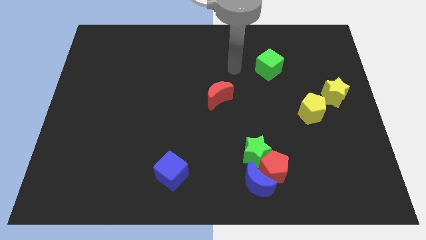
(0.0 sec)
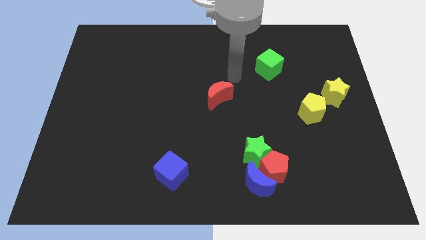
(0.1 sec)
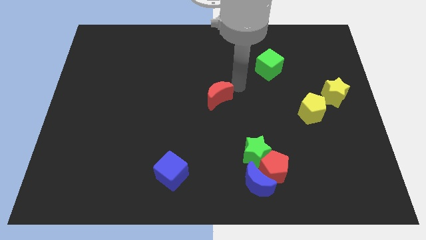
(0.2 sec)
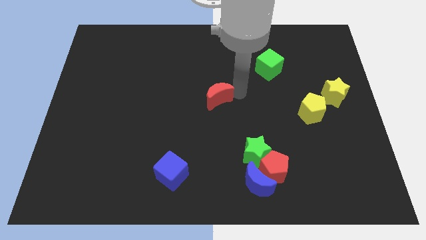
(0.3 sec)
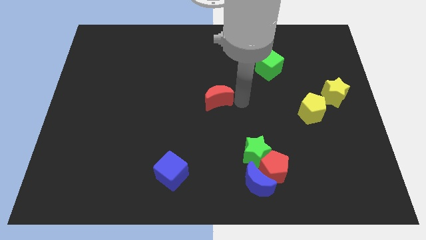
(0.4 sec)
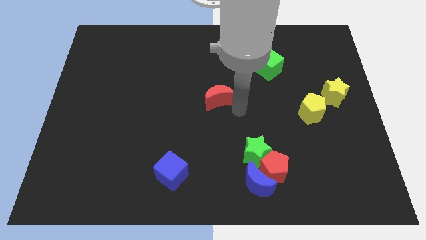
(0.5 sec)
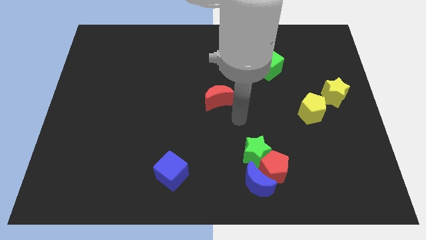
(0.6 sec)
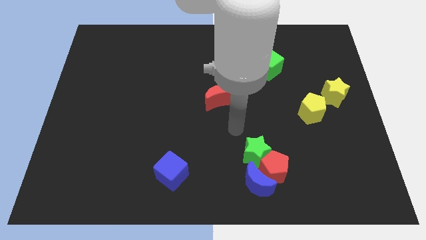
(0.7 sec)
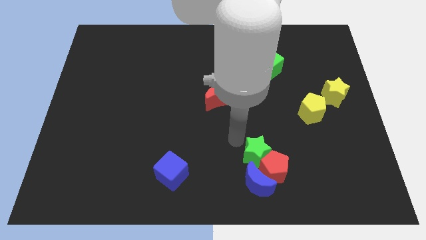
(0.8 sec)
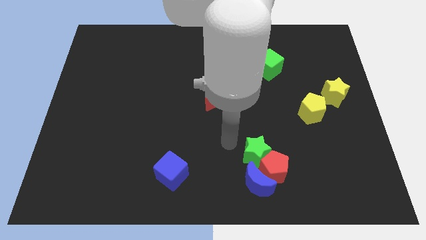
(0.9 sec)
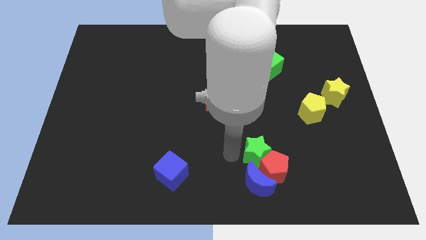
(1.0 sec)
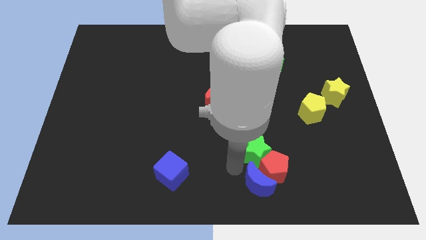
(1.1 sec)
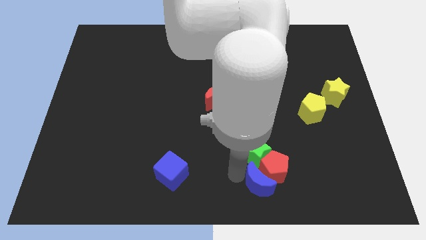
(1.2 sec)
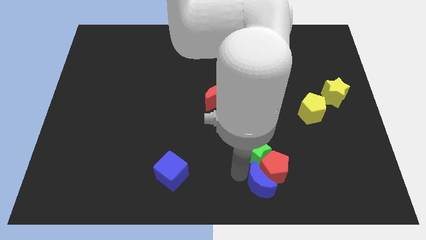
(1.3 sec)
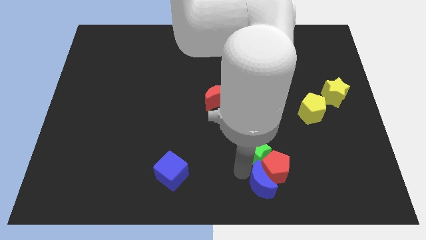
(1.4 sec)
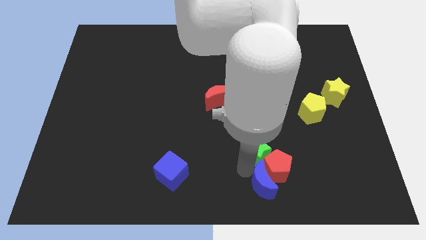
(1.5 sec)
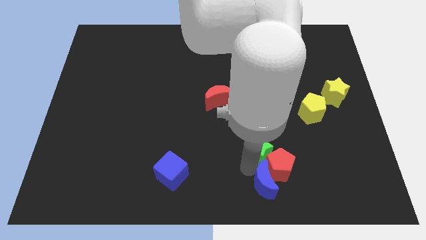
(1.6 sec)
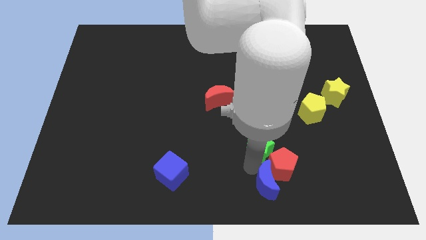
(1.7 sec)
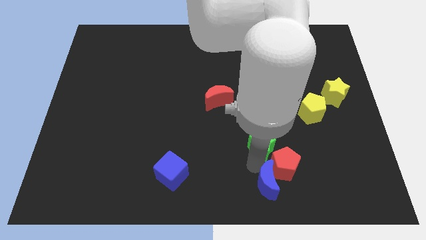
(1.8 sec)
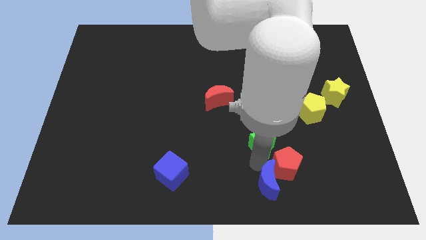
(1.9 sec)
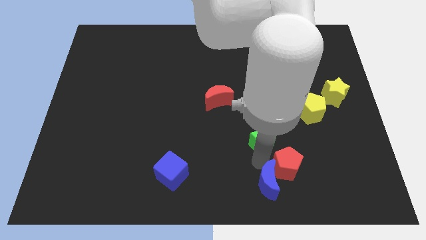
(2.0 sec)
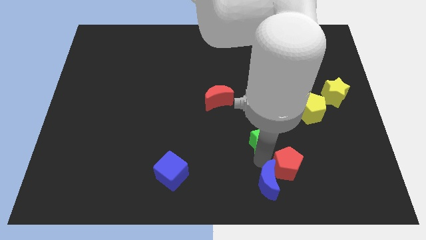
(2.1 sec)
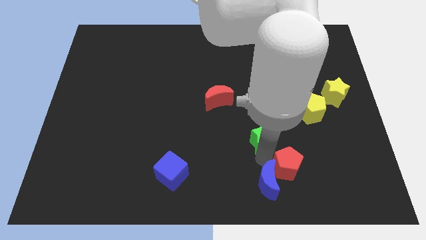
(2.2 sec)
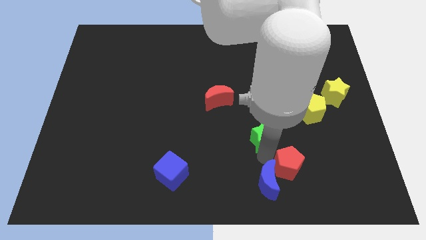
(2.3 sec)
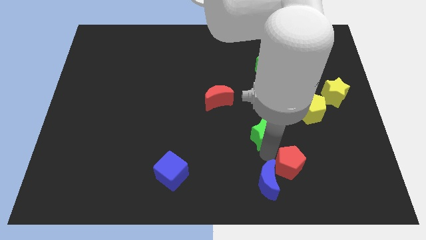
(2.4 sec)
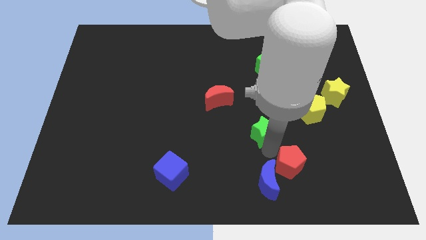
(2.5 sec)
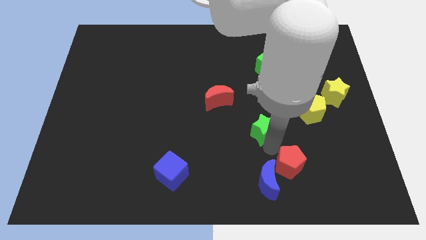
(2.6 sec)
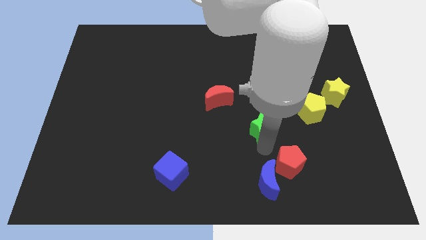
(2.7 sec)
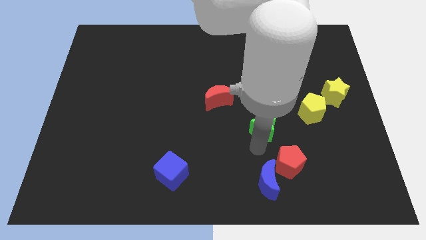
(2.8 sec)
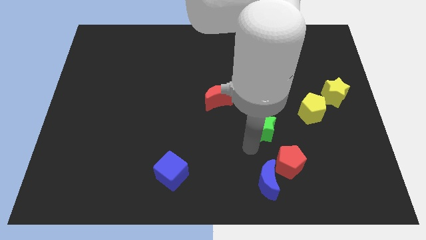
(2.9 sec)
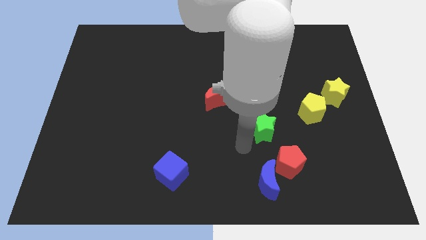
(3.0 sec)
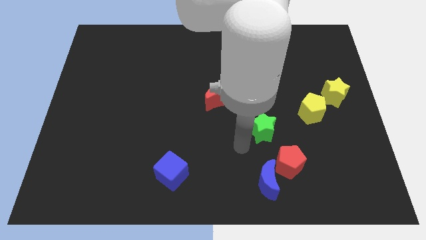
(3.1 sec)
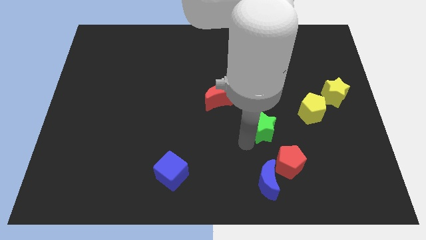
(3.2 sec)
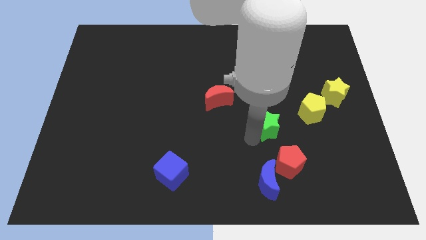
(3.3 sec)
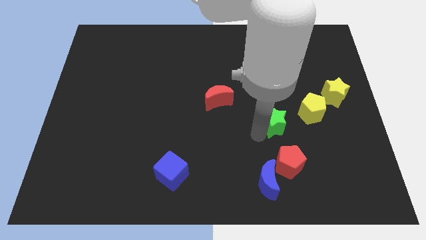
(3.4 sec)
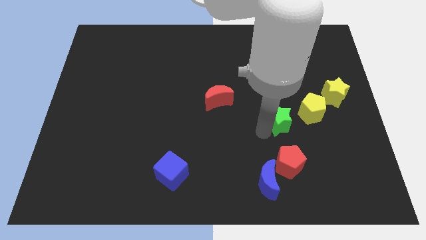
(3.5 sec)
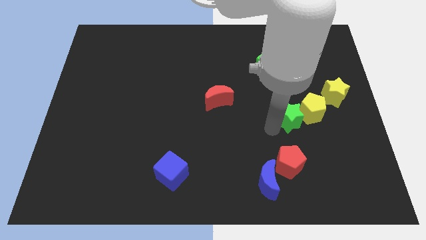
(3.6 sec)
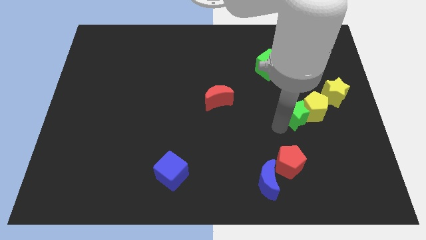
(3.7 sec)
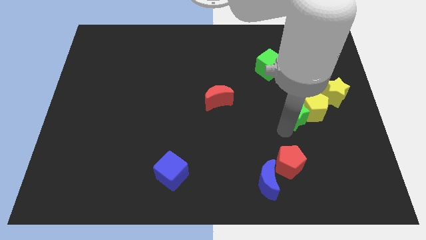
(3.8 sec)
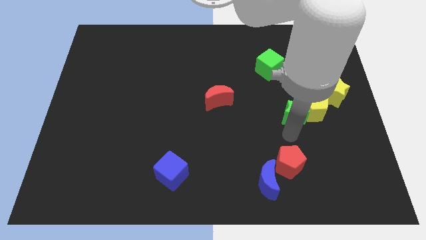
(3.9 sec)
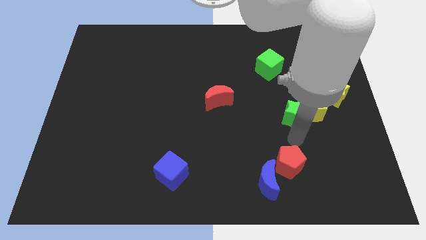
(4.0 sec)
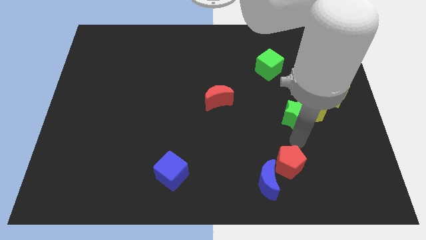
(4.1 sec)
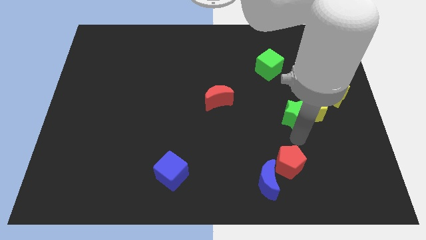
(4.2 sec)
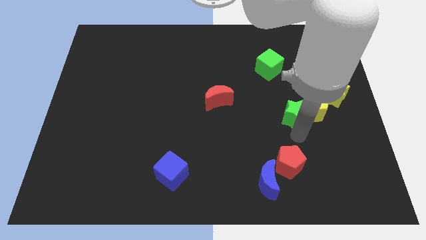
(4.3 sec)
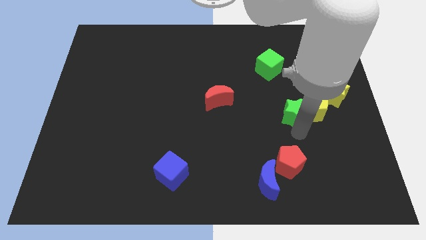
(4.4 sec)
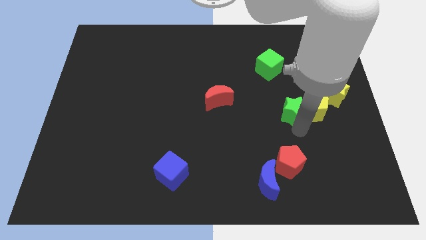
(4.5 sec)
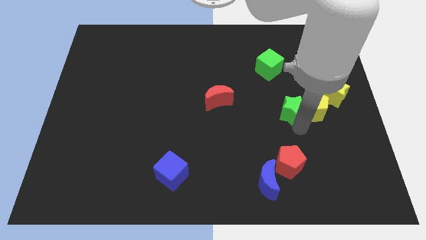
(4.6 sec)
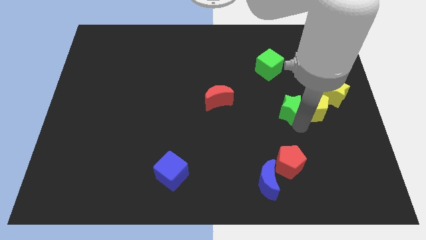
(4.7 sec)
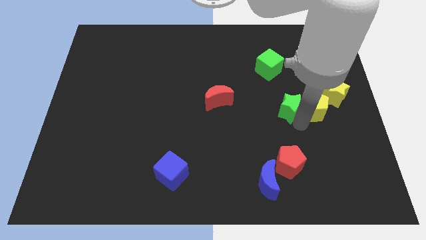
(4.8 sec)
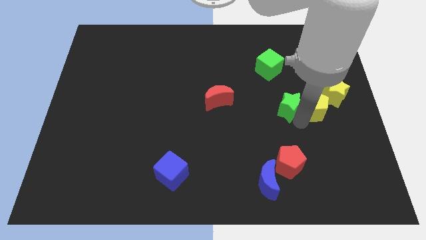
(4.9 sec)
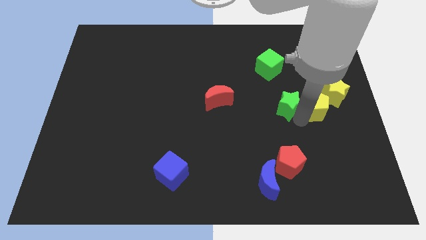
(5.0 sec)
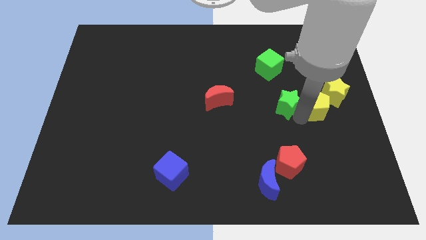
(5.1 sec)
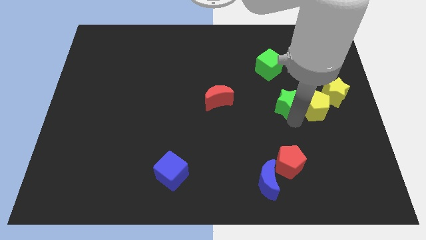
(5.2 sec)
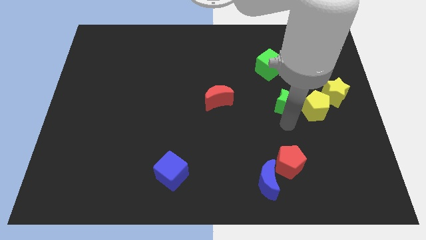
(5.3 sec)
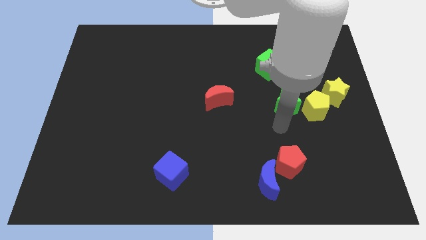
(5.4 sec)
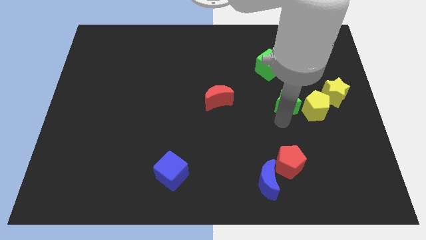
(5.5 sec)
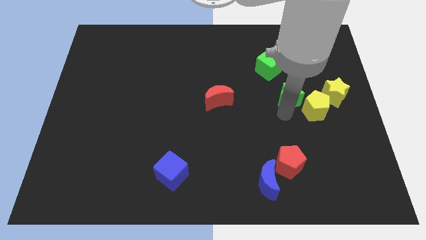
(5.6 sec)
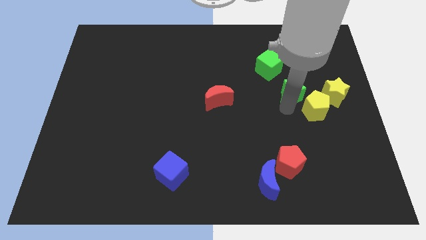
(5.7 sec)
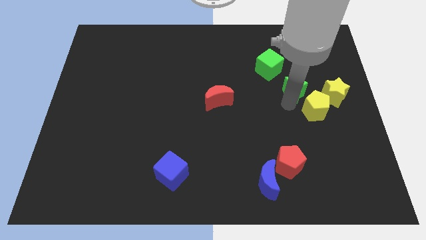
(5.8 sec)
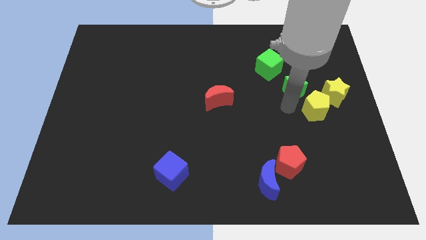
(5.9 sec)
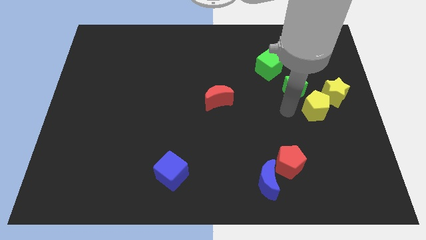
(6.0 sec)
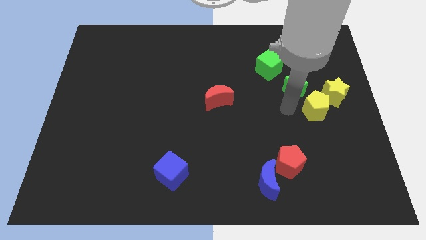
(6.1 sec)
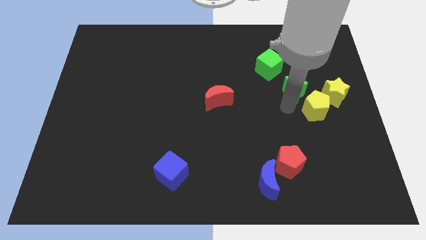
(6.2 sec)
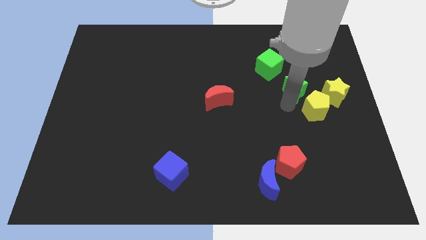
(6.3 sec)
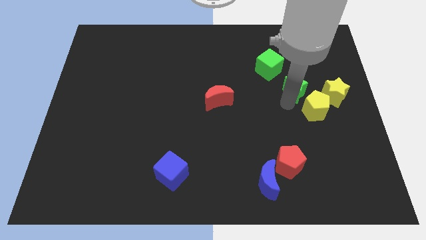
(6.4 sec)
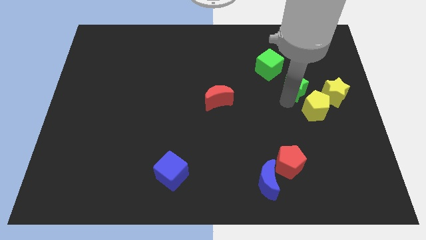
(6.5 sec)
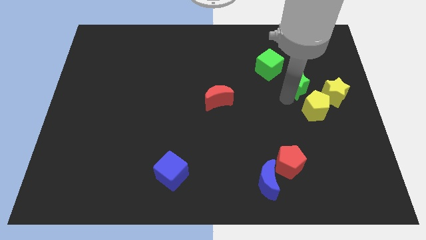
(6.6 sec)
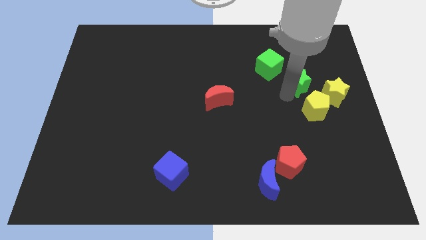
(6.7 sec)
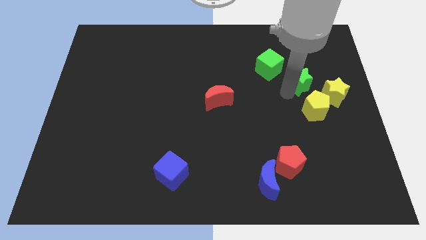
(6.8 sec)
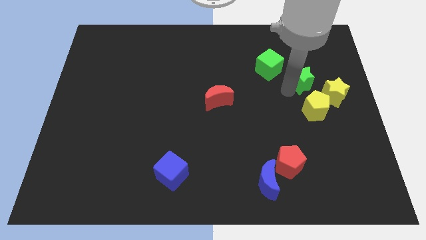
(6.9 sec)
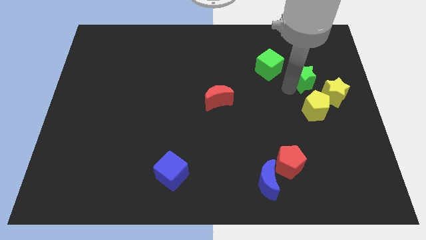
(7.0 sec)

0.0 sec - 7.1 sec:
put the green star to the right side of the green cube
